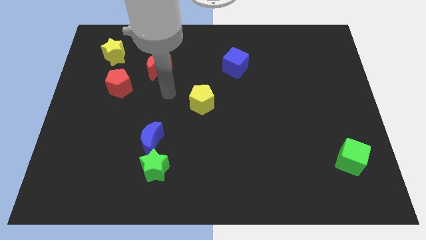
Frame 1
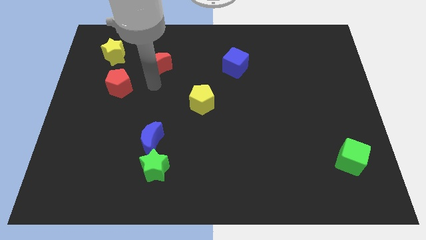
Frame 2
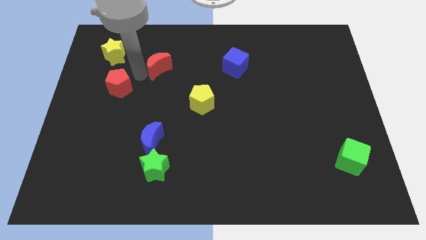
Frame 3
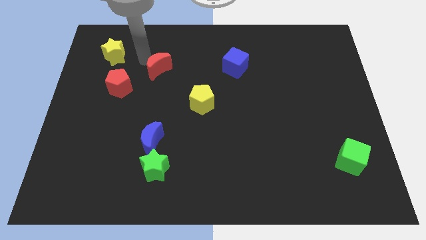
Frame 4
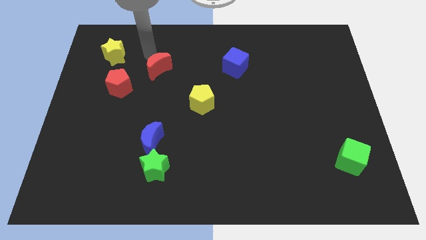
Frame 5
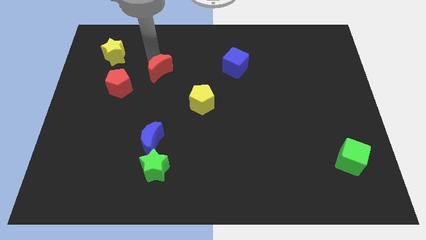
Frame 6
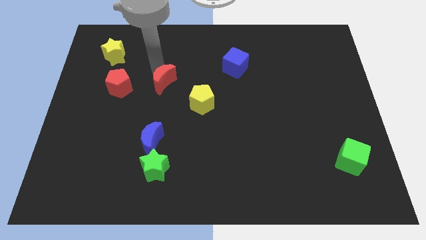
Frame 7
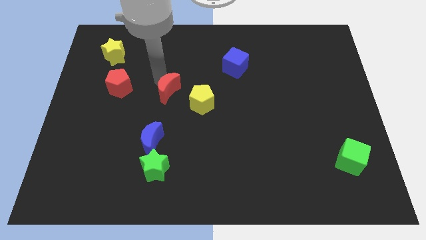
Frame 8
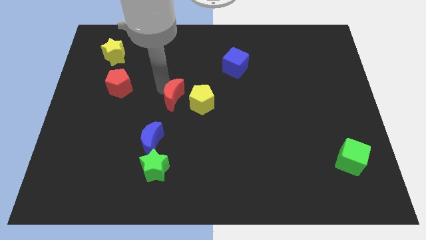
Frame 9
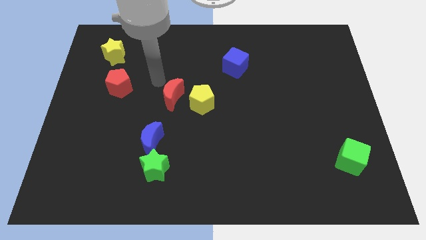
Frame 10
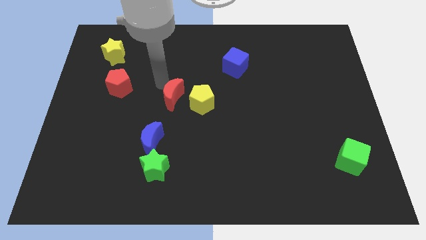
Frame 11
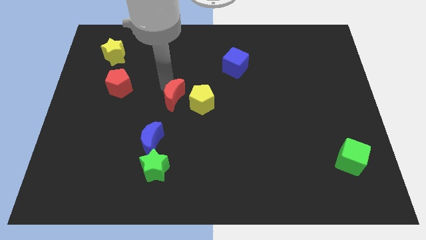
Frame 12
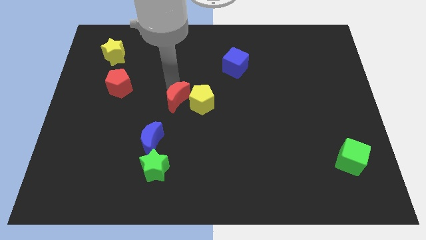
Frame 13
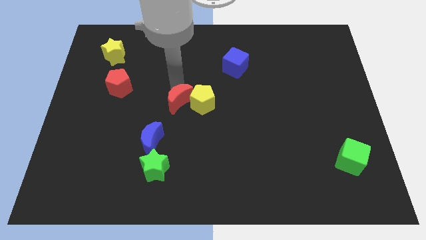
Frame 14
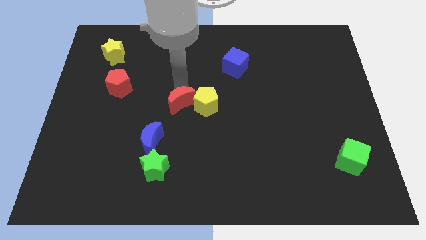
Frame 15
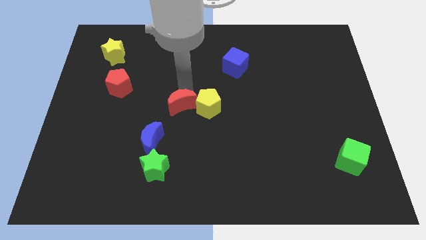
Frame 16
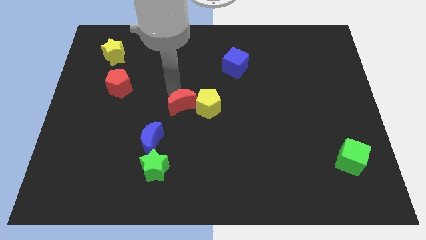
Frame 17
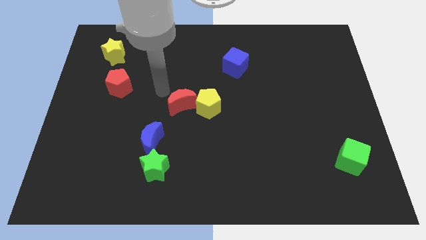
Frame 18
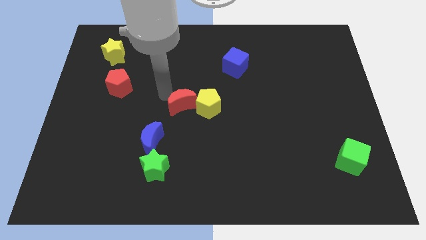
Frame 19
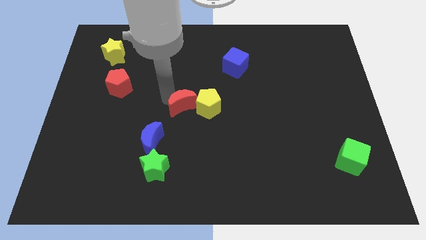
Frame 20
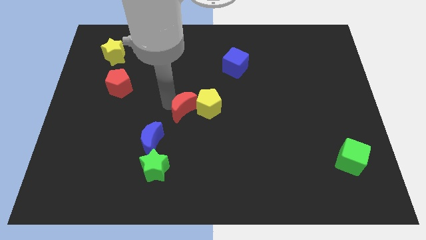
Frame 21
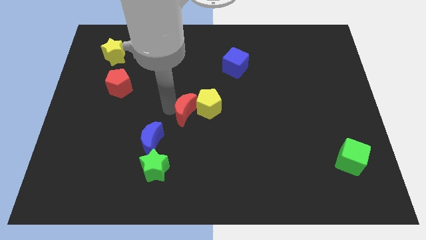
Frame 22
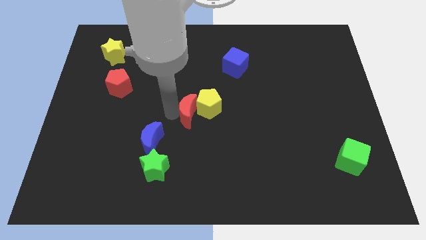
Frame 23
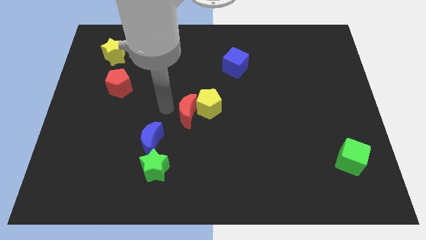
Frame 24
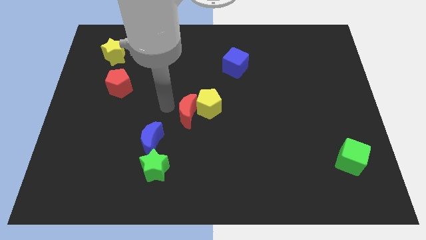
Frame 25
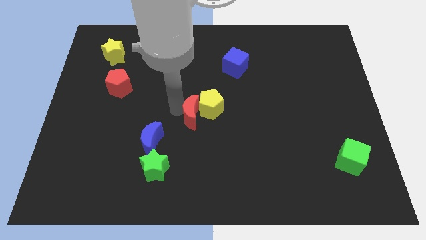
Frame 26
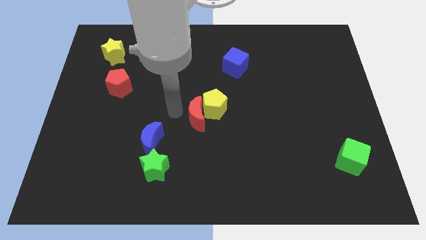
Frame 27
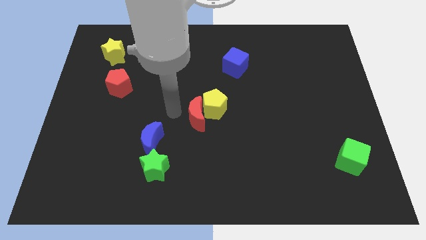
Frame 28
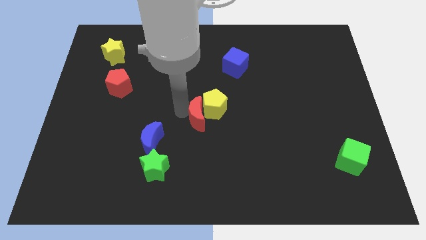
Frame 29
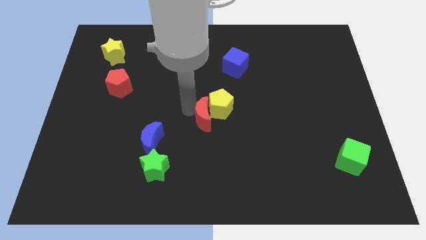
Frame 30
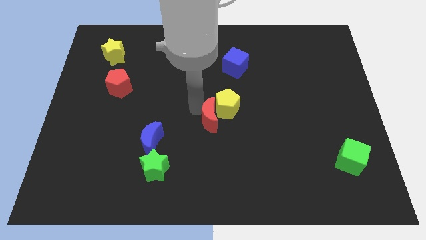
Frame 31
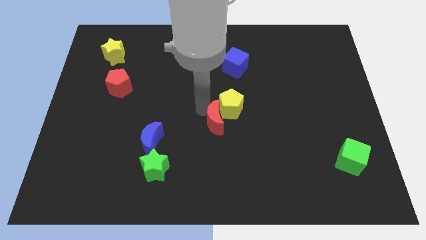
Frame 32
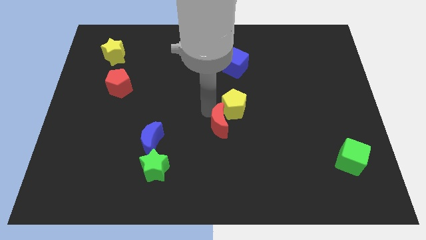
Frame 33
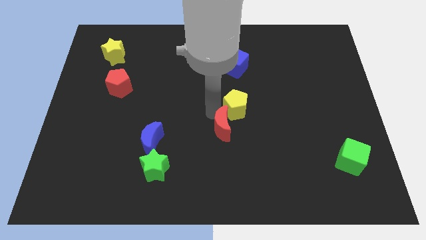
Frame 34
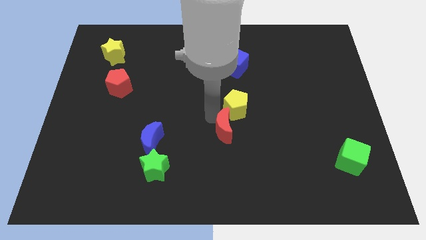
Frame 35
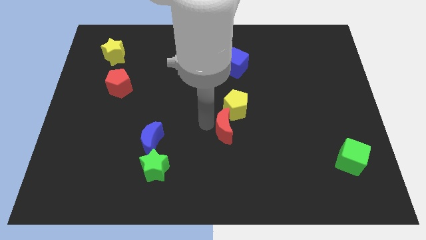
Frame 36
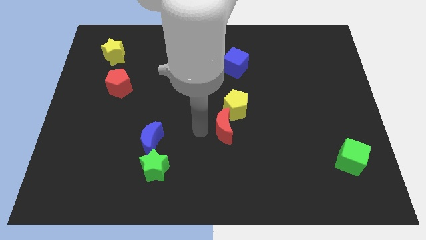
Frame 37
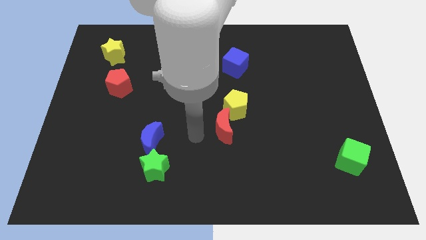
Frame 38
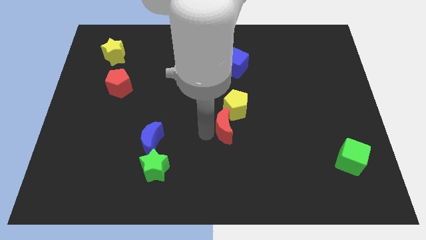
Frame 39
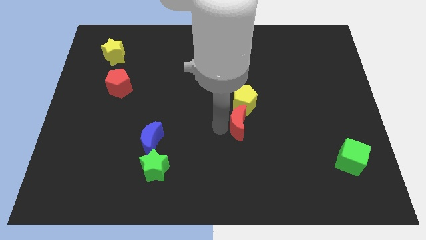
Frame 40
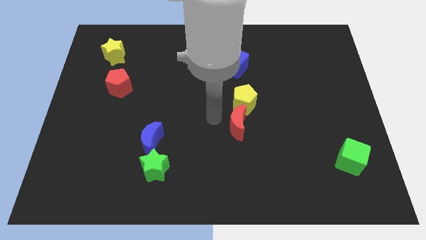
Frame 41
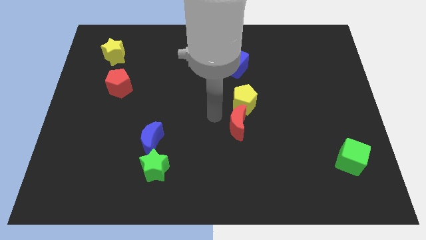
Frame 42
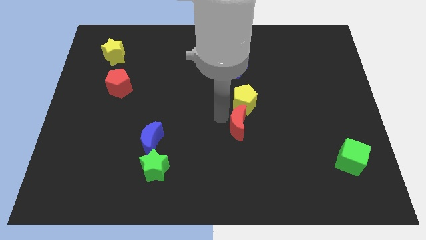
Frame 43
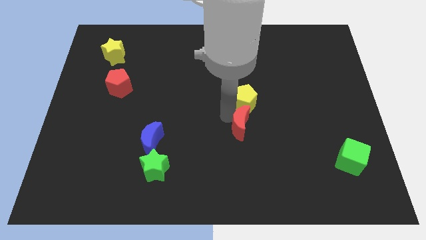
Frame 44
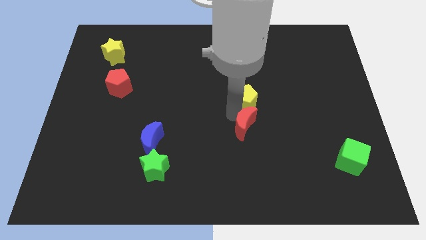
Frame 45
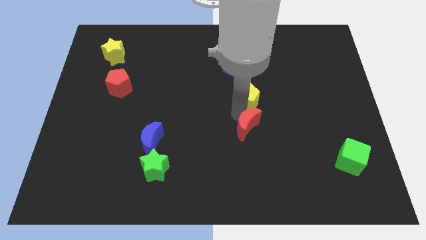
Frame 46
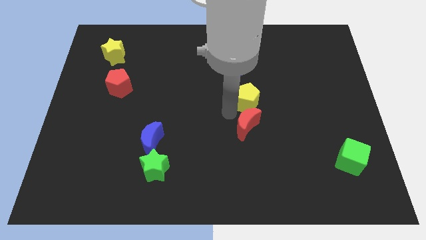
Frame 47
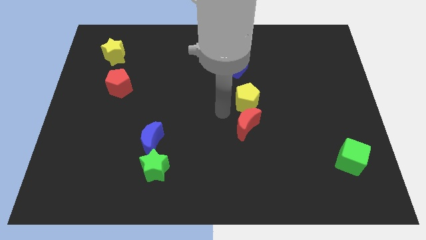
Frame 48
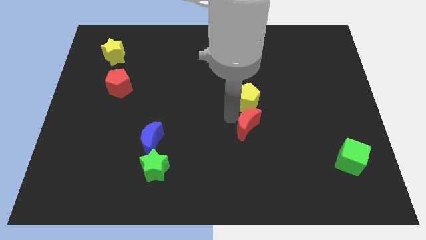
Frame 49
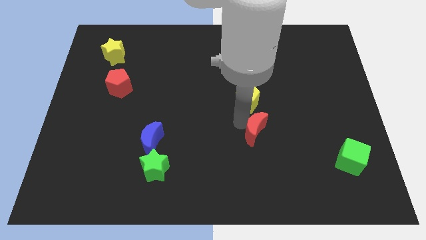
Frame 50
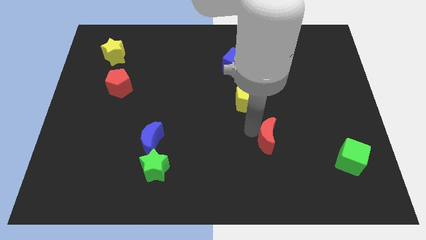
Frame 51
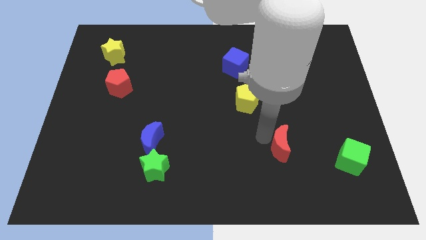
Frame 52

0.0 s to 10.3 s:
slide the red moon just left of the green cube

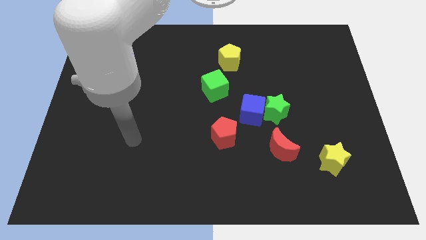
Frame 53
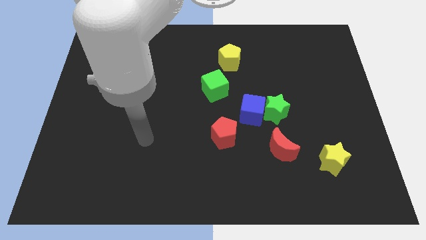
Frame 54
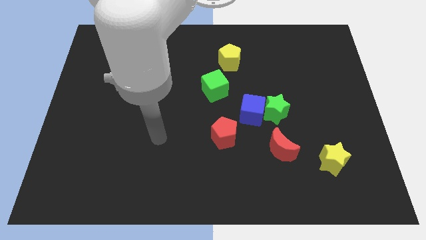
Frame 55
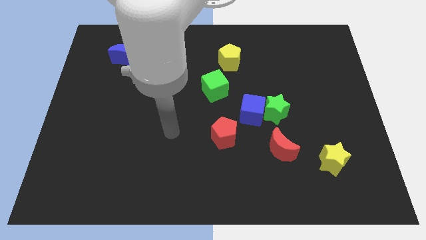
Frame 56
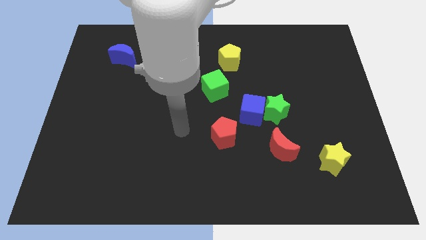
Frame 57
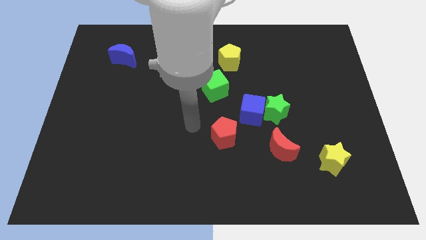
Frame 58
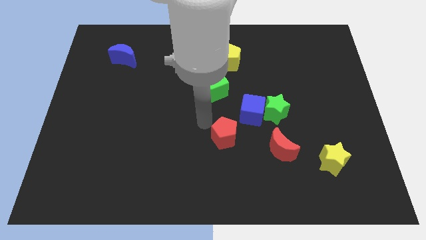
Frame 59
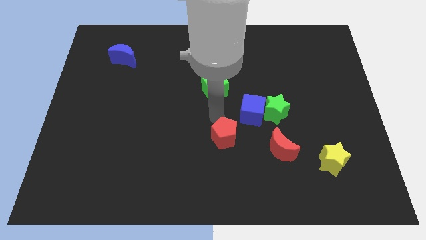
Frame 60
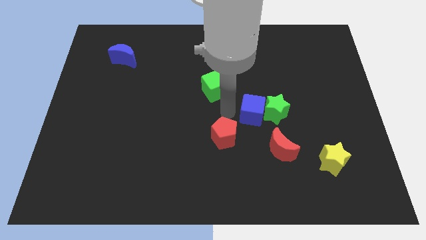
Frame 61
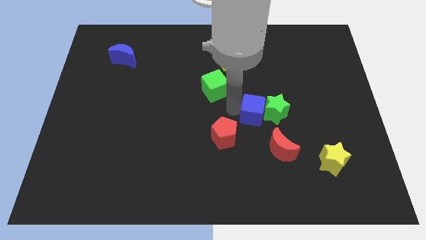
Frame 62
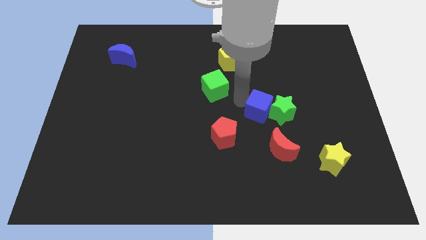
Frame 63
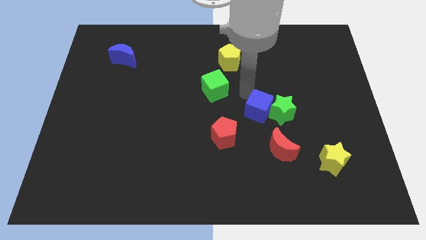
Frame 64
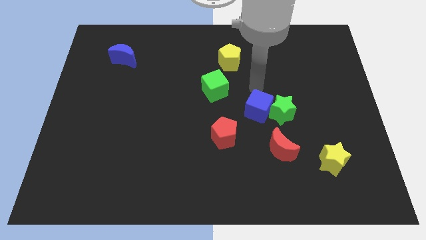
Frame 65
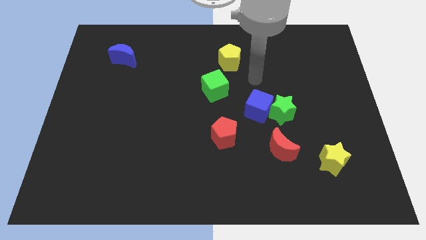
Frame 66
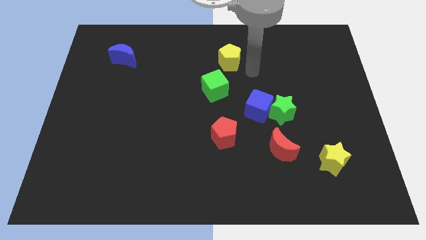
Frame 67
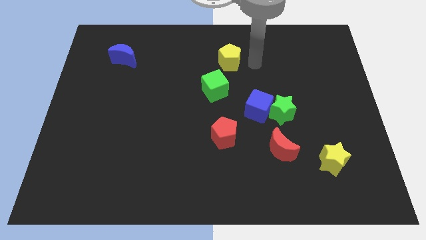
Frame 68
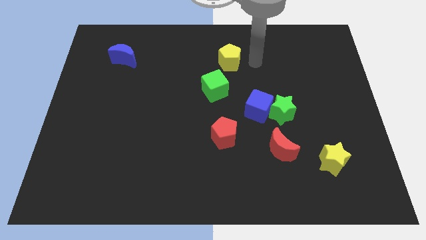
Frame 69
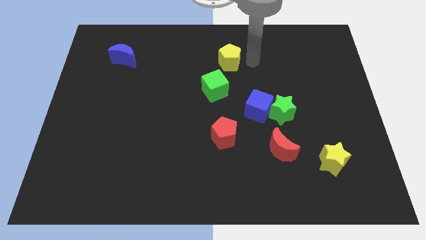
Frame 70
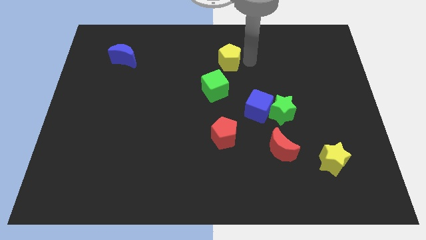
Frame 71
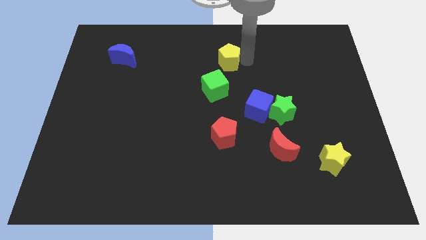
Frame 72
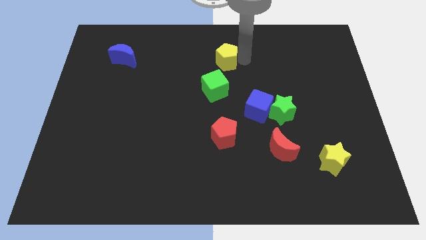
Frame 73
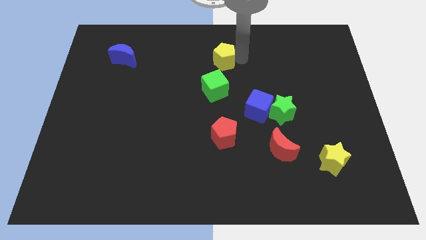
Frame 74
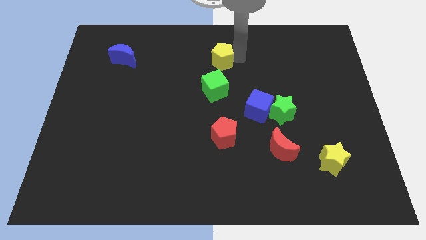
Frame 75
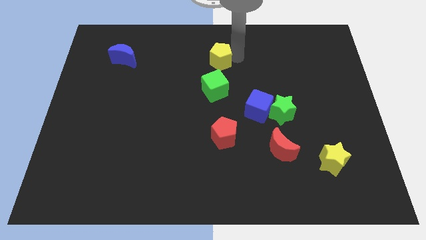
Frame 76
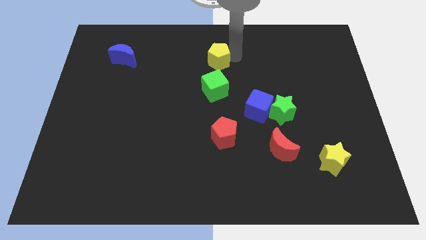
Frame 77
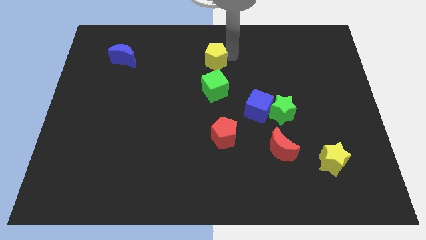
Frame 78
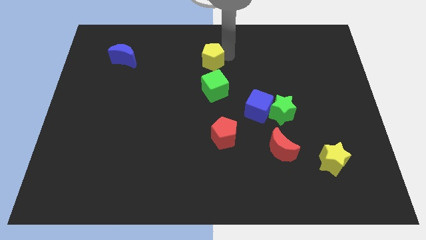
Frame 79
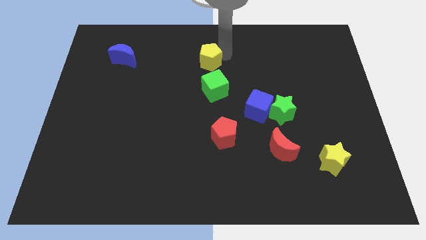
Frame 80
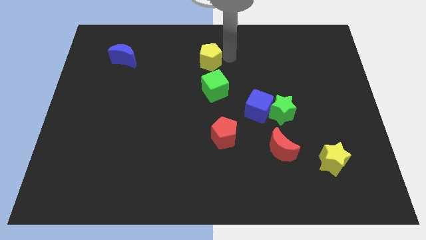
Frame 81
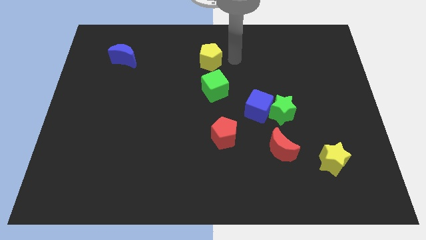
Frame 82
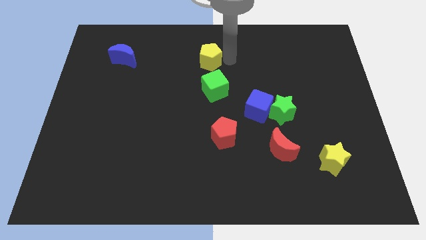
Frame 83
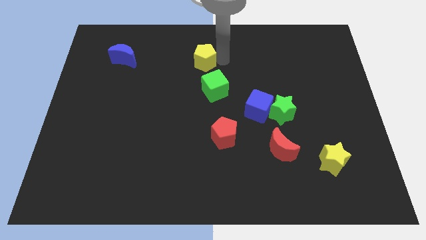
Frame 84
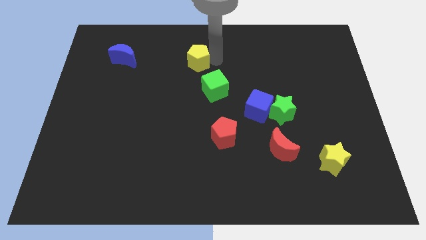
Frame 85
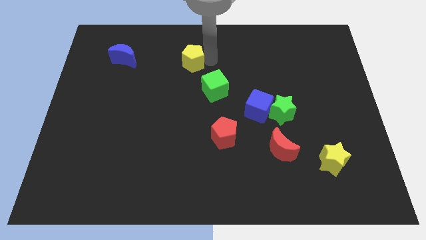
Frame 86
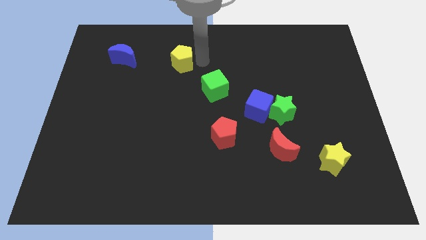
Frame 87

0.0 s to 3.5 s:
push the yellow pentagon to the right side of the blue moon
